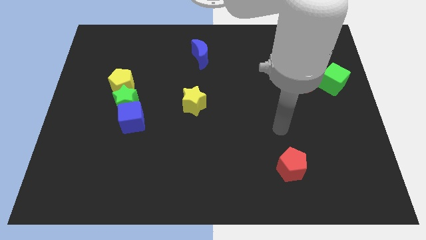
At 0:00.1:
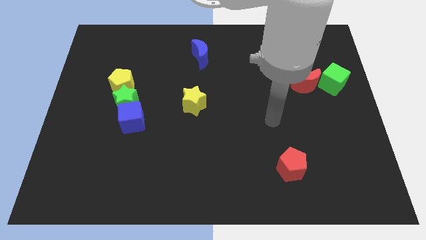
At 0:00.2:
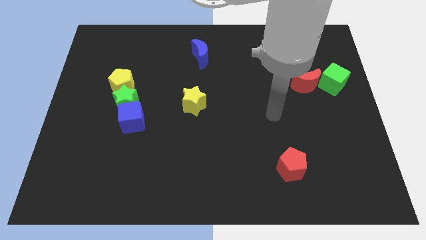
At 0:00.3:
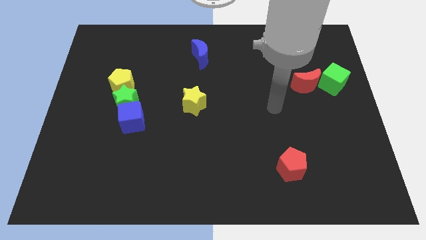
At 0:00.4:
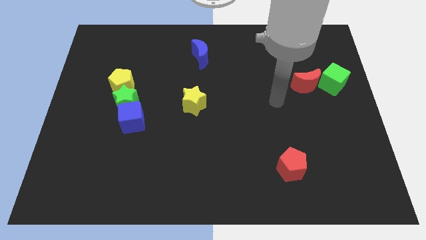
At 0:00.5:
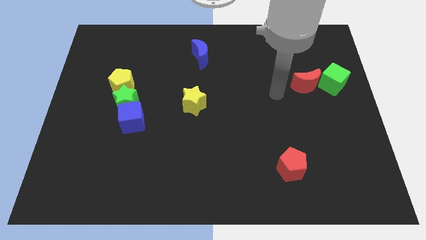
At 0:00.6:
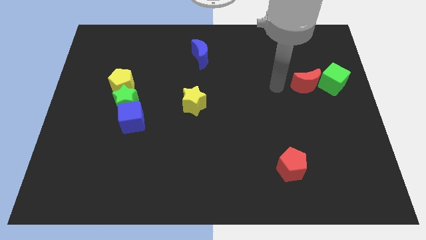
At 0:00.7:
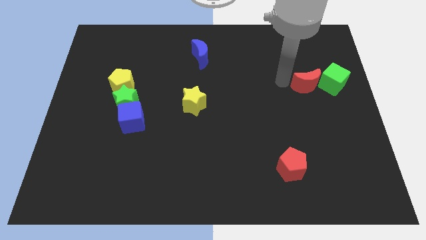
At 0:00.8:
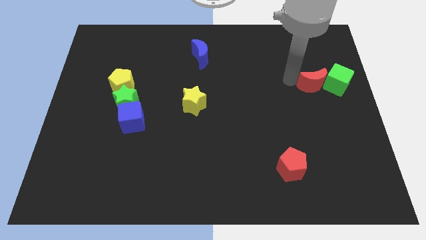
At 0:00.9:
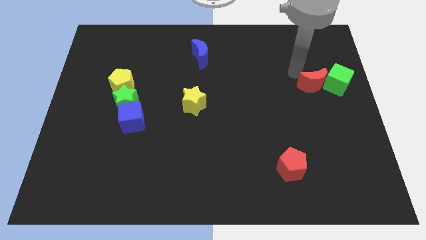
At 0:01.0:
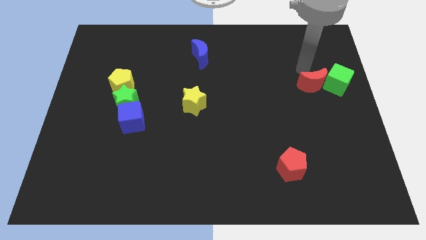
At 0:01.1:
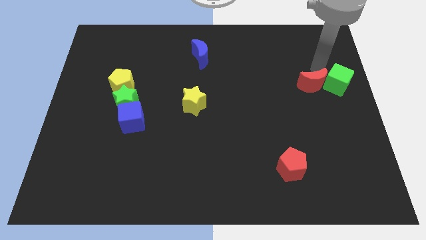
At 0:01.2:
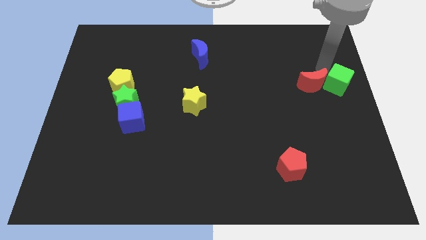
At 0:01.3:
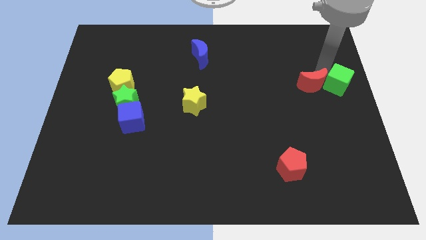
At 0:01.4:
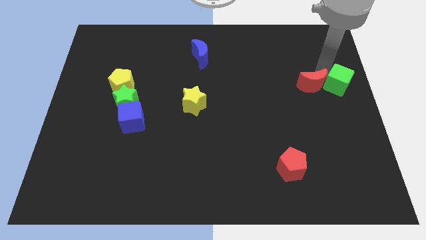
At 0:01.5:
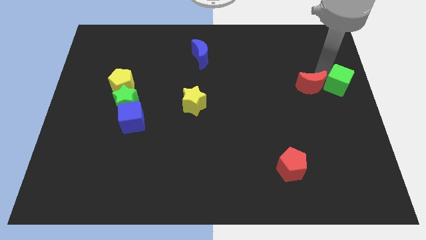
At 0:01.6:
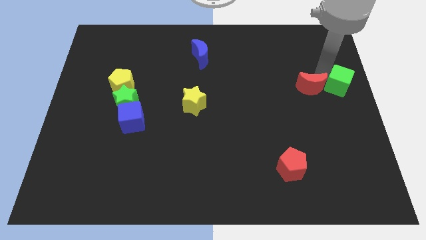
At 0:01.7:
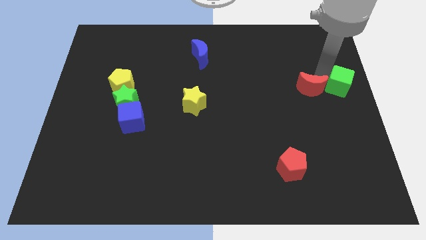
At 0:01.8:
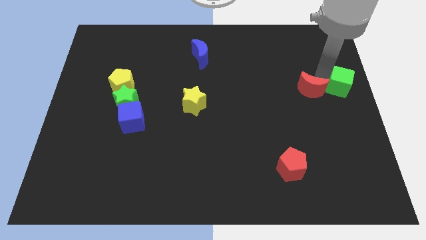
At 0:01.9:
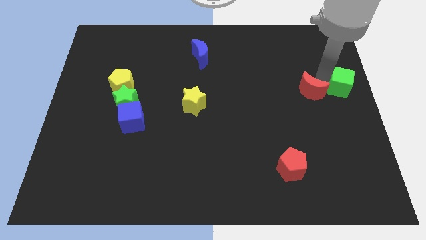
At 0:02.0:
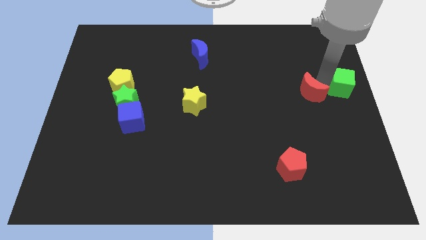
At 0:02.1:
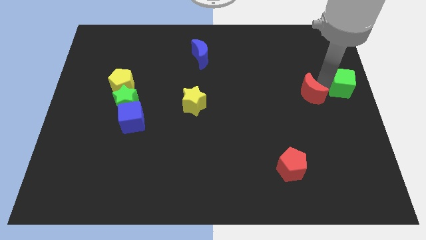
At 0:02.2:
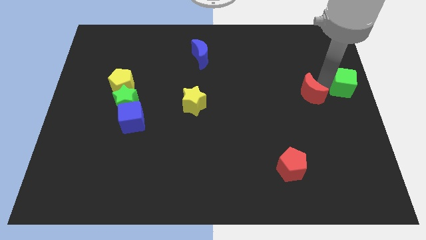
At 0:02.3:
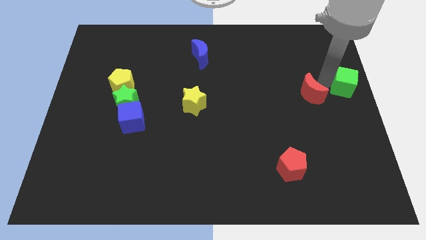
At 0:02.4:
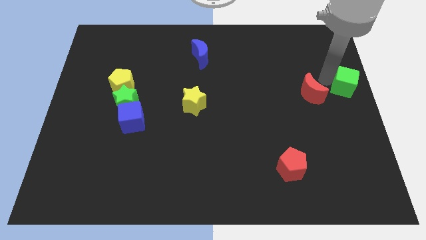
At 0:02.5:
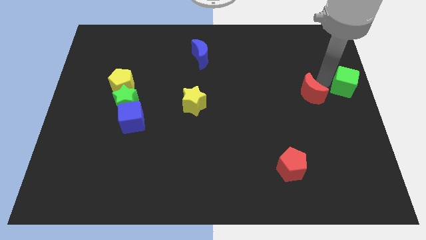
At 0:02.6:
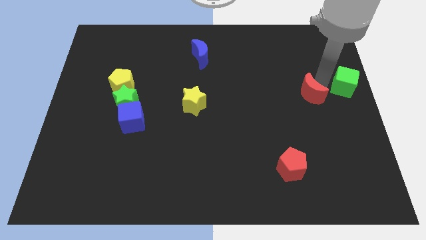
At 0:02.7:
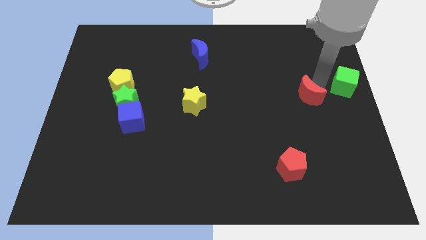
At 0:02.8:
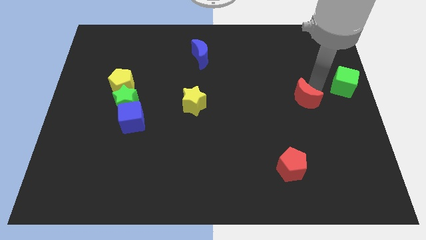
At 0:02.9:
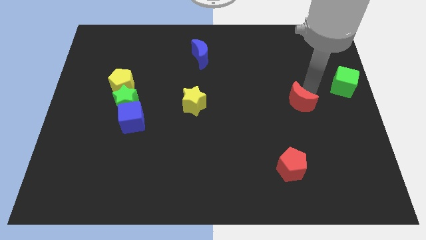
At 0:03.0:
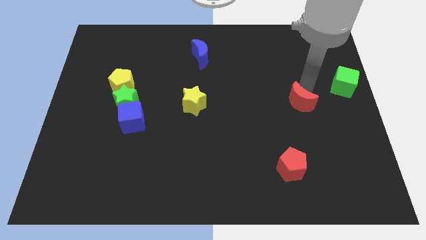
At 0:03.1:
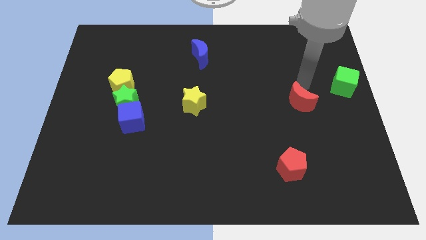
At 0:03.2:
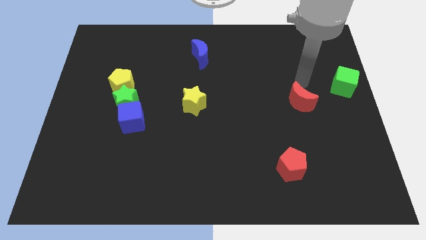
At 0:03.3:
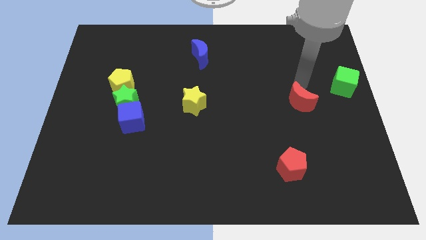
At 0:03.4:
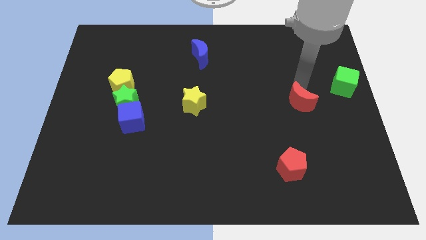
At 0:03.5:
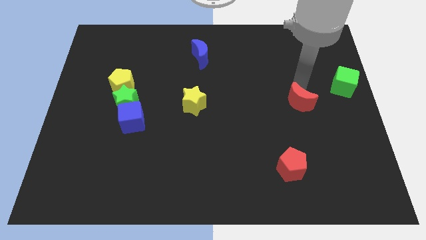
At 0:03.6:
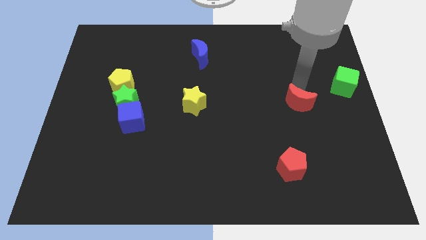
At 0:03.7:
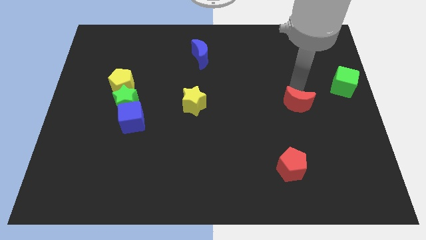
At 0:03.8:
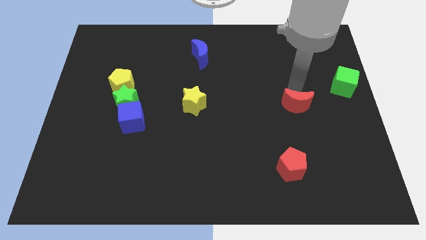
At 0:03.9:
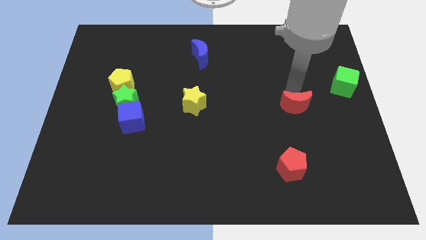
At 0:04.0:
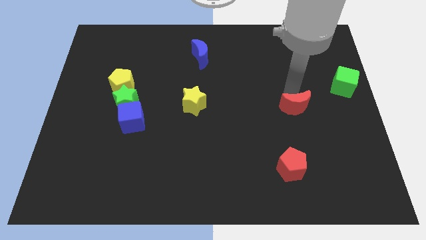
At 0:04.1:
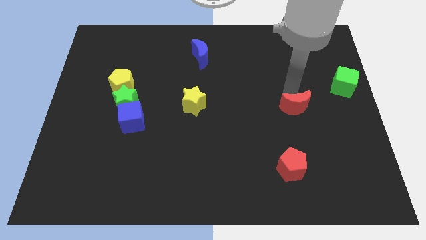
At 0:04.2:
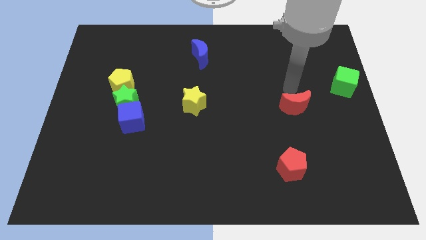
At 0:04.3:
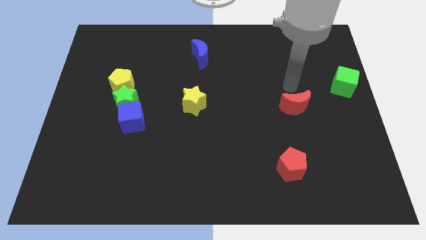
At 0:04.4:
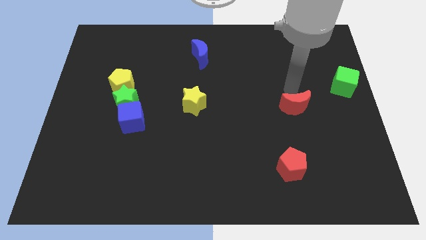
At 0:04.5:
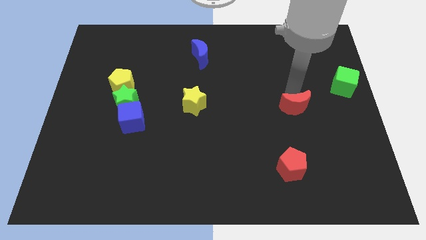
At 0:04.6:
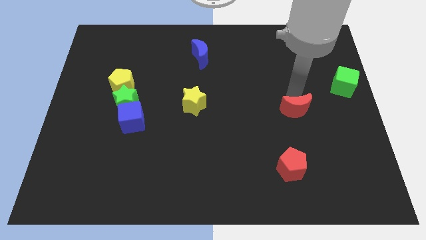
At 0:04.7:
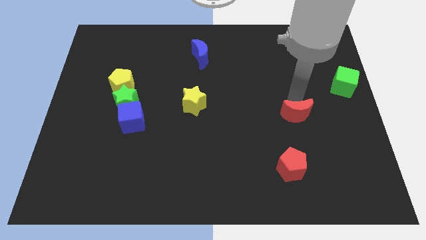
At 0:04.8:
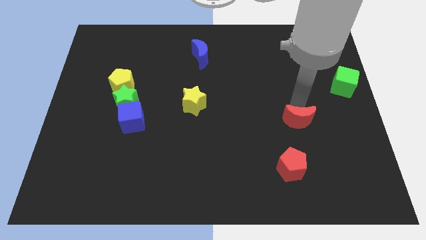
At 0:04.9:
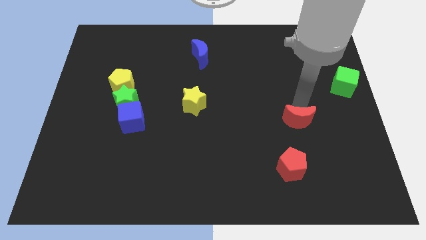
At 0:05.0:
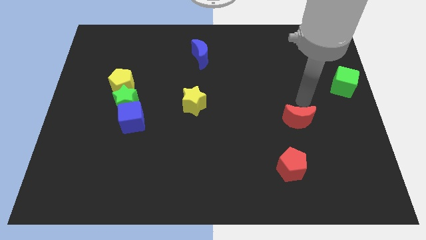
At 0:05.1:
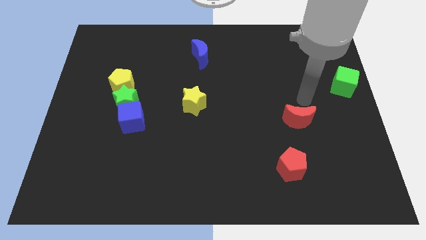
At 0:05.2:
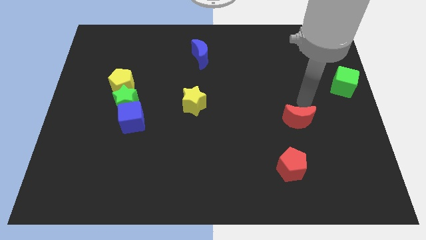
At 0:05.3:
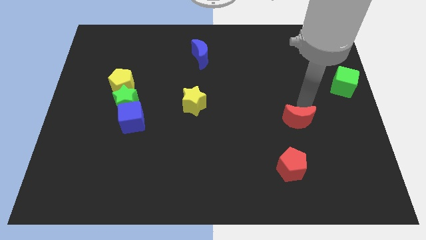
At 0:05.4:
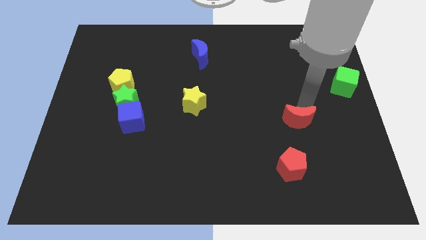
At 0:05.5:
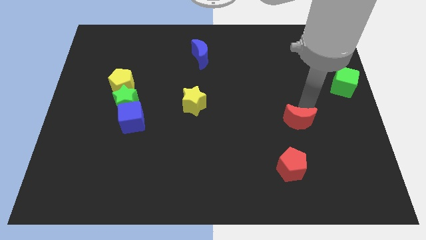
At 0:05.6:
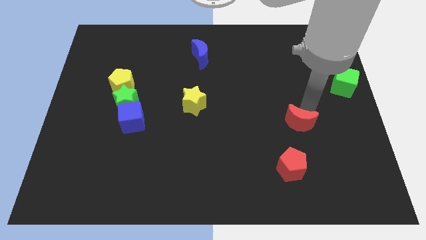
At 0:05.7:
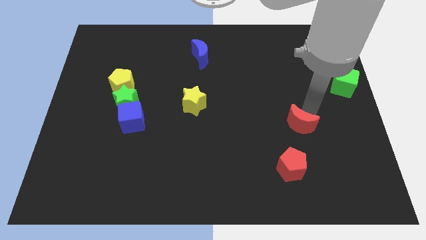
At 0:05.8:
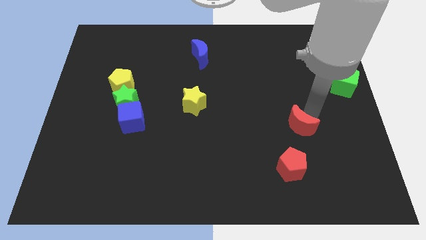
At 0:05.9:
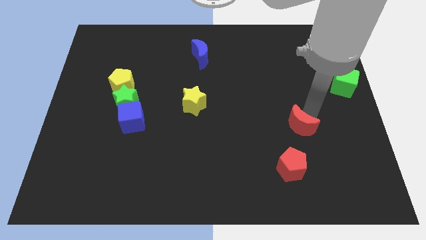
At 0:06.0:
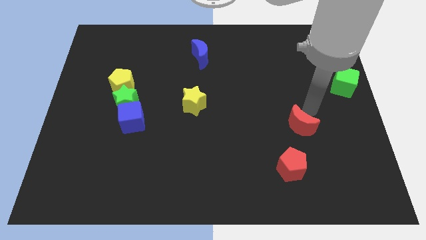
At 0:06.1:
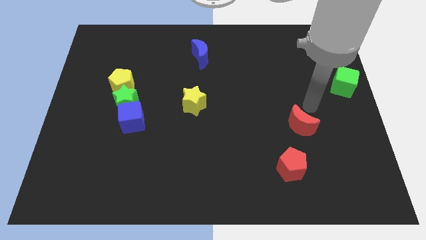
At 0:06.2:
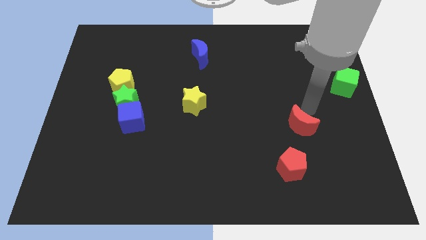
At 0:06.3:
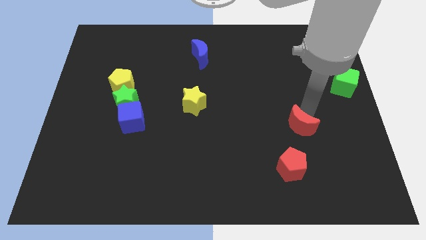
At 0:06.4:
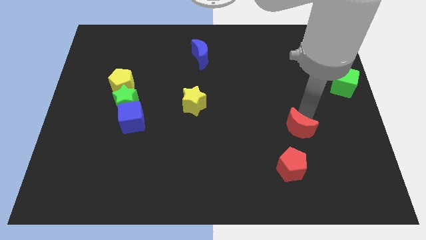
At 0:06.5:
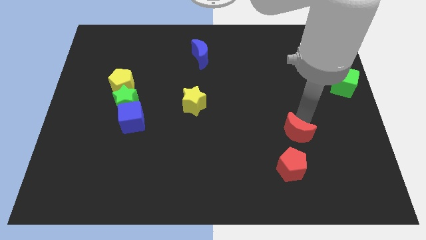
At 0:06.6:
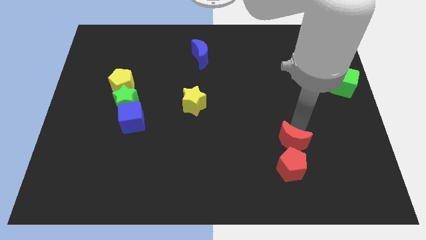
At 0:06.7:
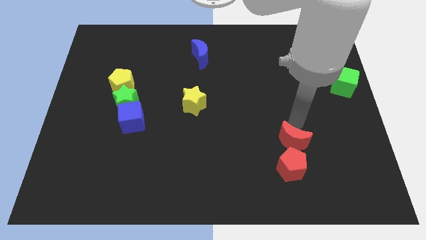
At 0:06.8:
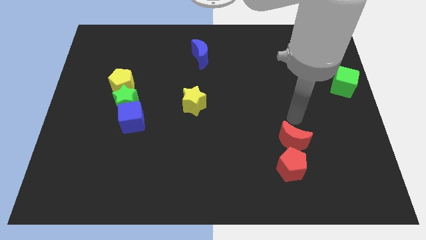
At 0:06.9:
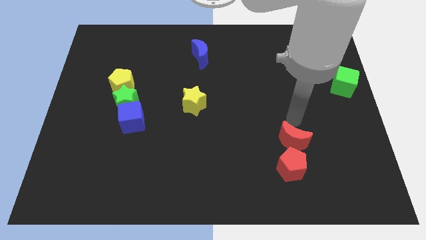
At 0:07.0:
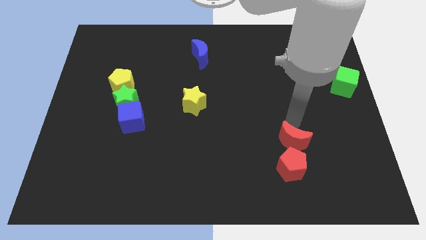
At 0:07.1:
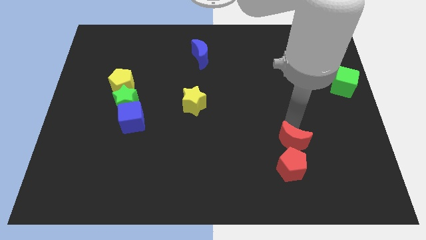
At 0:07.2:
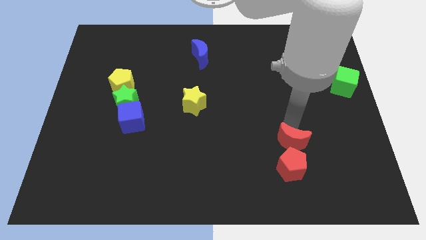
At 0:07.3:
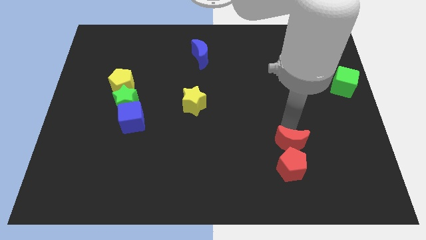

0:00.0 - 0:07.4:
put the red moon next to the red pentagon
